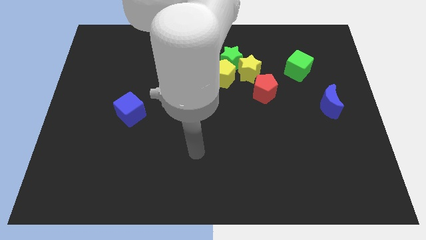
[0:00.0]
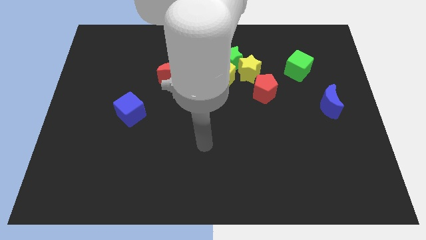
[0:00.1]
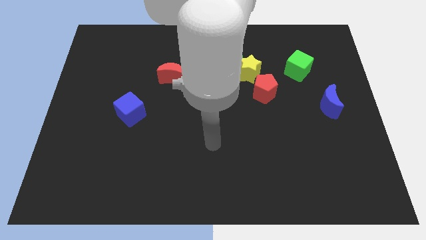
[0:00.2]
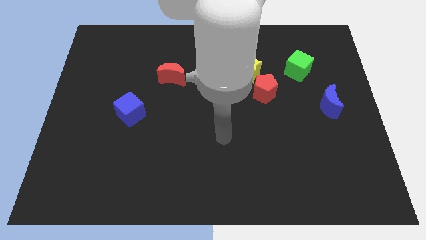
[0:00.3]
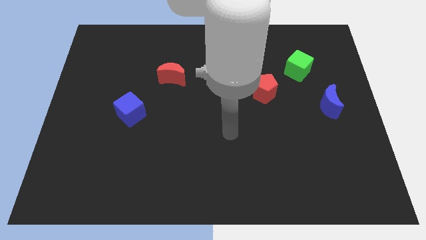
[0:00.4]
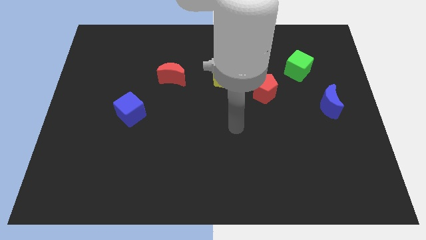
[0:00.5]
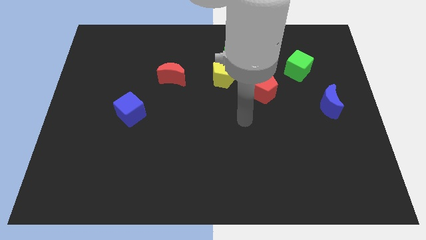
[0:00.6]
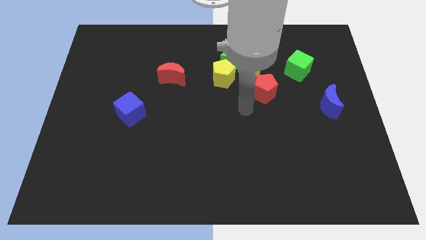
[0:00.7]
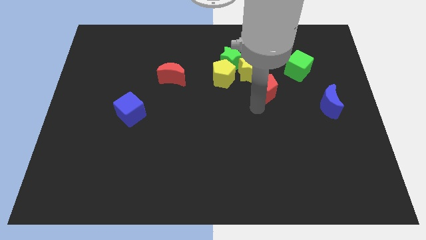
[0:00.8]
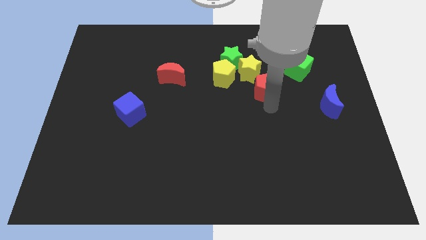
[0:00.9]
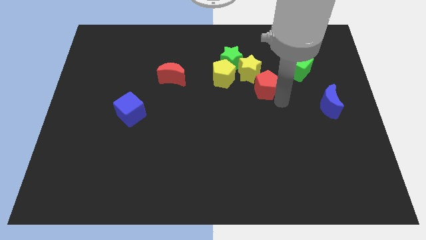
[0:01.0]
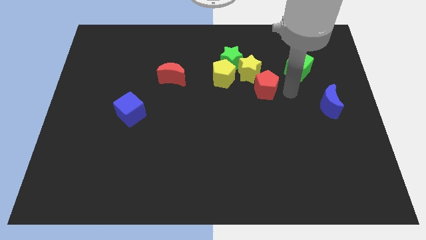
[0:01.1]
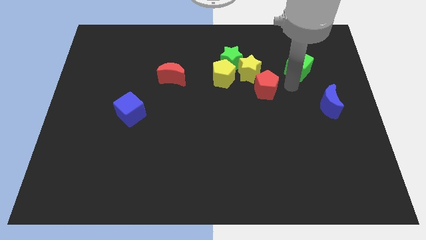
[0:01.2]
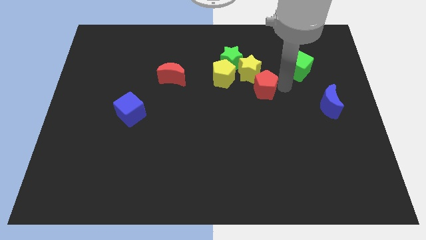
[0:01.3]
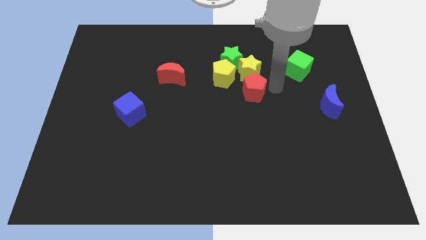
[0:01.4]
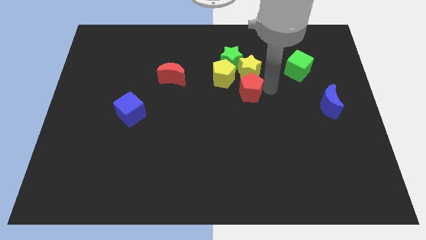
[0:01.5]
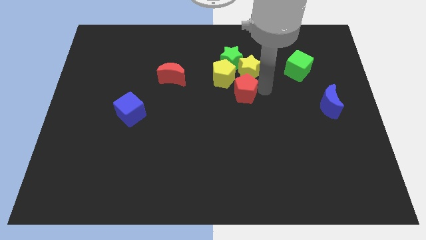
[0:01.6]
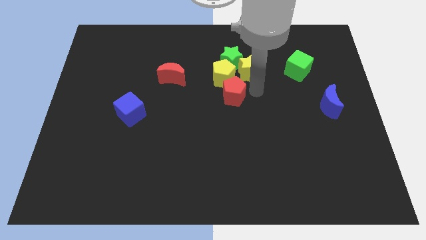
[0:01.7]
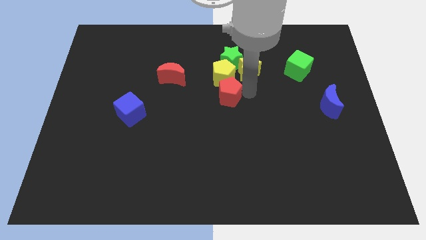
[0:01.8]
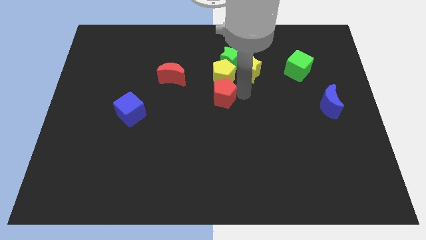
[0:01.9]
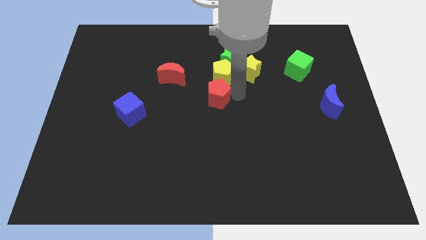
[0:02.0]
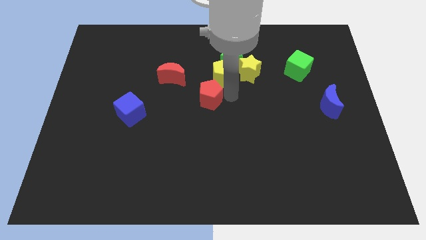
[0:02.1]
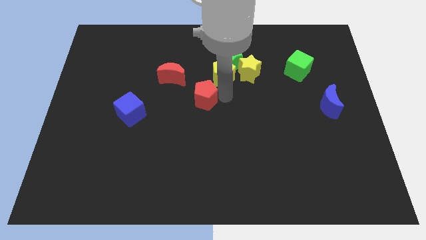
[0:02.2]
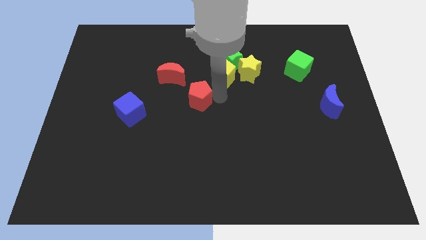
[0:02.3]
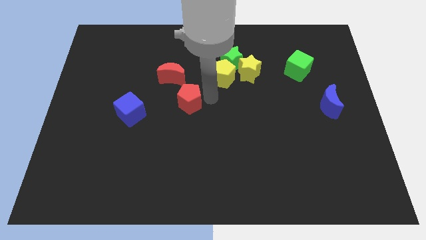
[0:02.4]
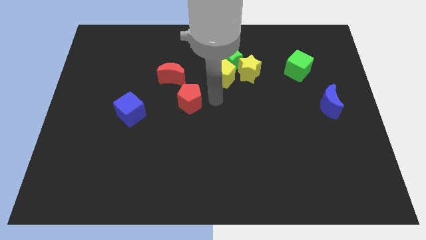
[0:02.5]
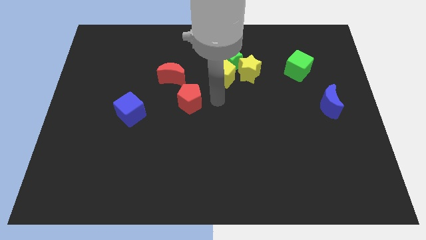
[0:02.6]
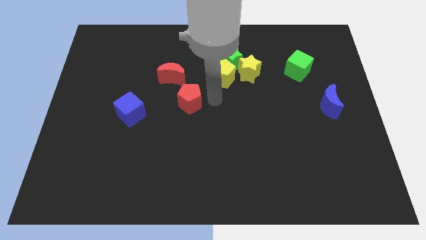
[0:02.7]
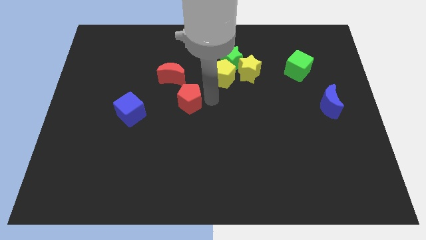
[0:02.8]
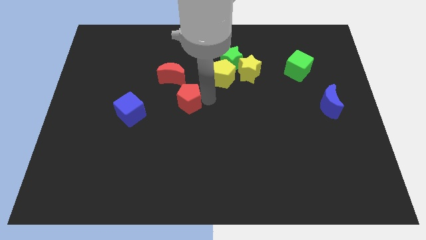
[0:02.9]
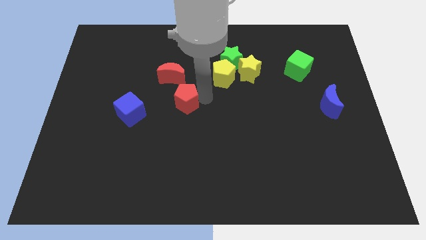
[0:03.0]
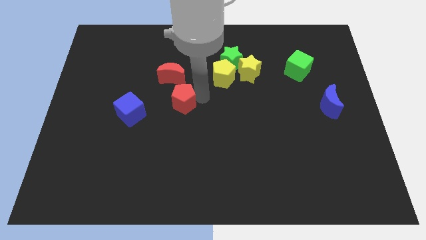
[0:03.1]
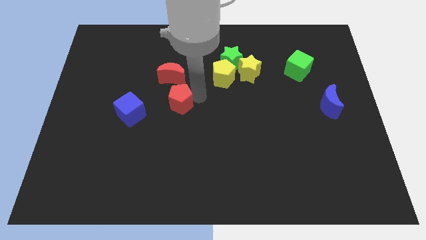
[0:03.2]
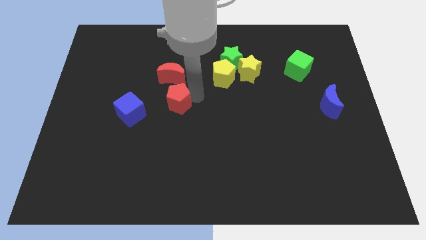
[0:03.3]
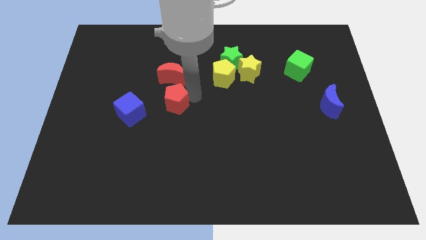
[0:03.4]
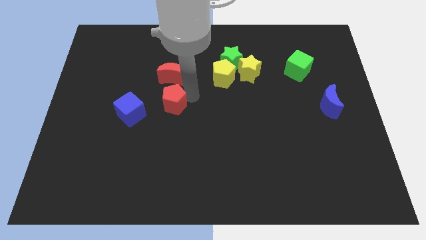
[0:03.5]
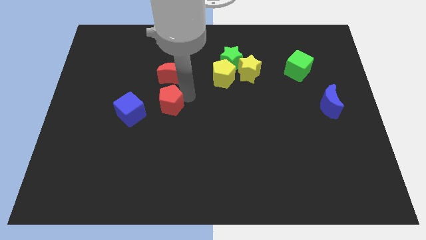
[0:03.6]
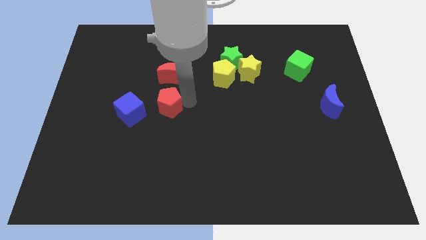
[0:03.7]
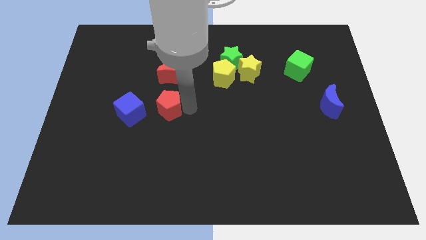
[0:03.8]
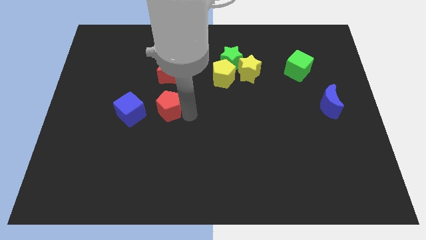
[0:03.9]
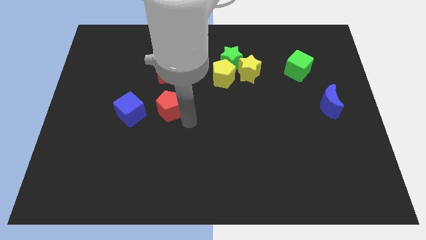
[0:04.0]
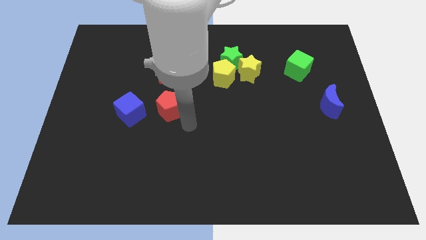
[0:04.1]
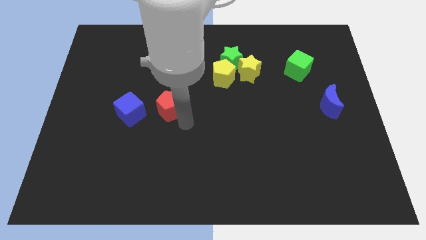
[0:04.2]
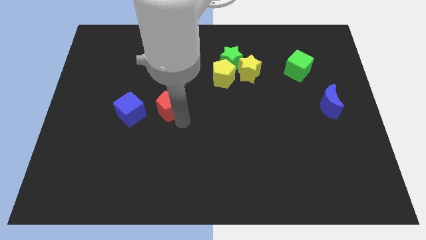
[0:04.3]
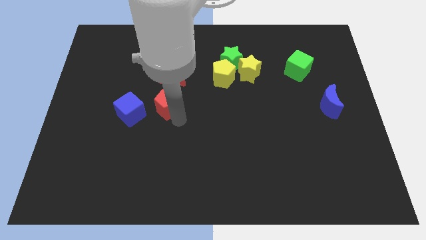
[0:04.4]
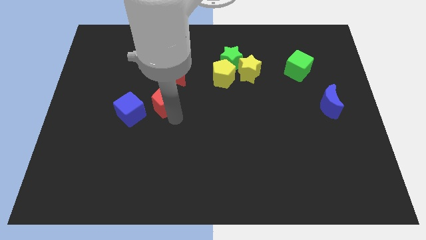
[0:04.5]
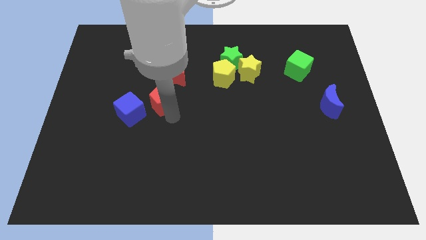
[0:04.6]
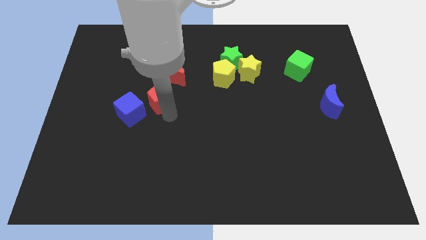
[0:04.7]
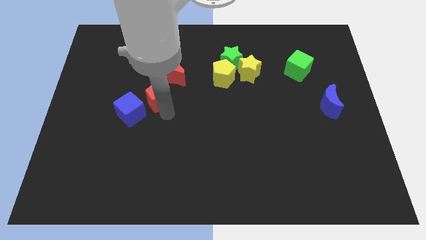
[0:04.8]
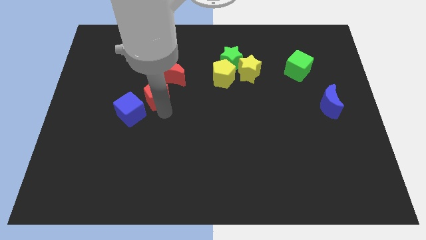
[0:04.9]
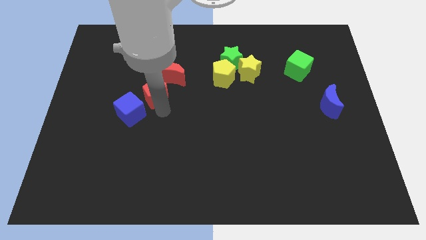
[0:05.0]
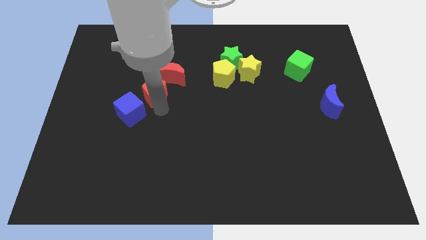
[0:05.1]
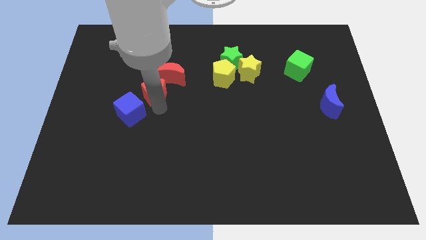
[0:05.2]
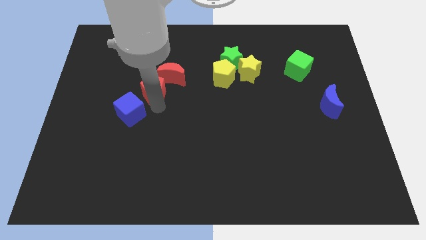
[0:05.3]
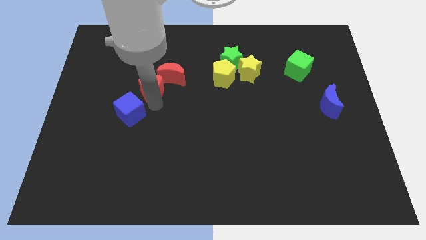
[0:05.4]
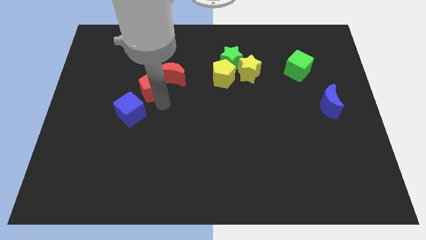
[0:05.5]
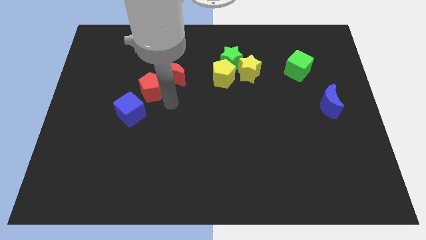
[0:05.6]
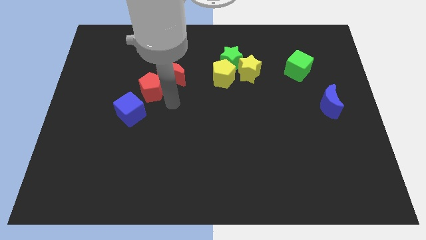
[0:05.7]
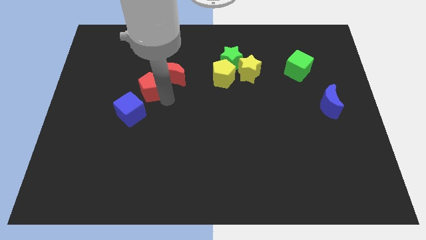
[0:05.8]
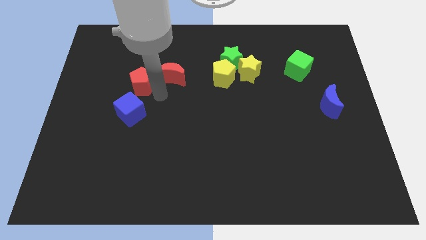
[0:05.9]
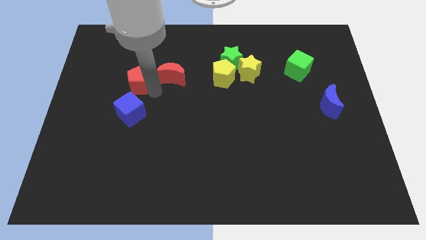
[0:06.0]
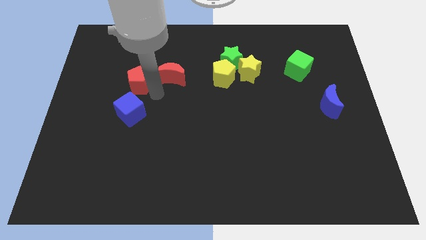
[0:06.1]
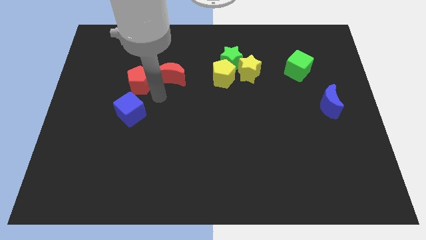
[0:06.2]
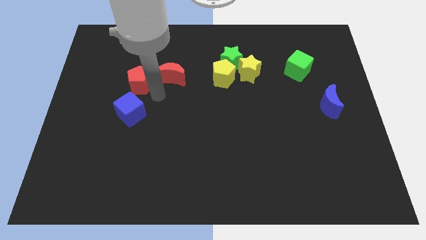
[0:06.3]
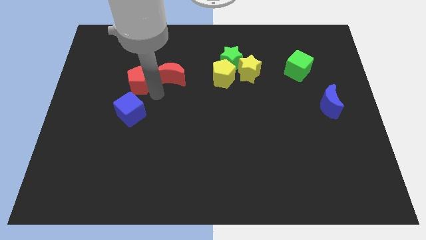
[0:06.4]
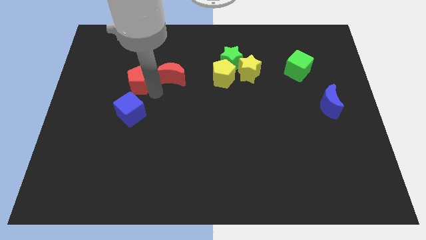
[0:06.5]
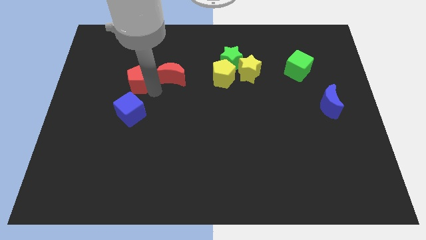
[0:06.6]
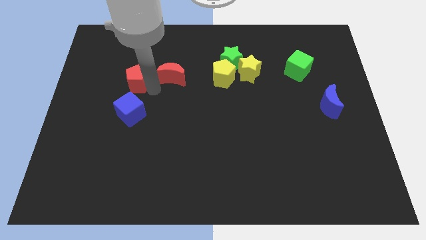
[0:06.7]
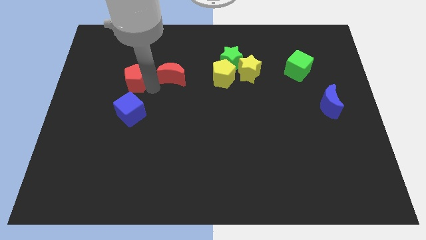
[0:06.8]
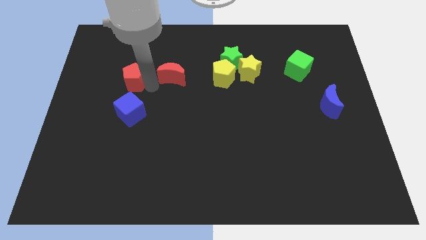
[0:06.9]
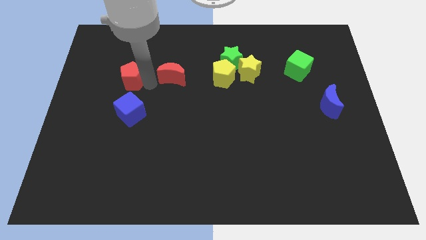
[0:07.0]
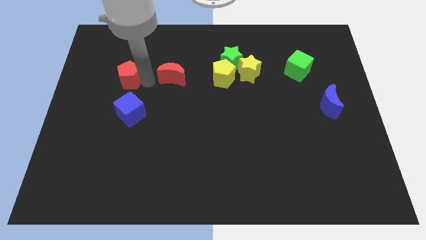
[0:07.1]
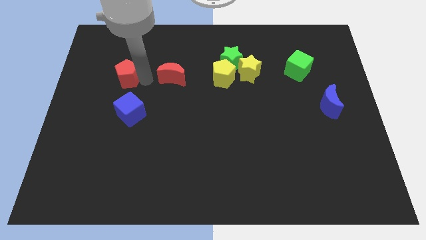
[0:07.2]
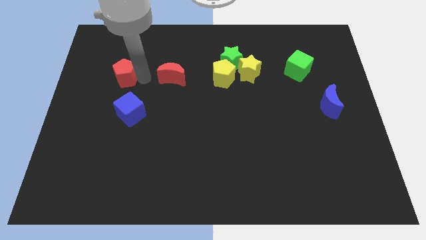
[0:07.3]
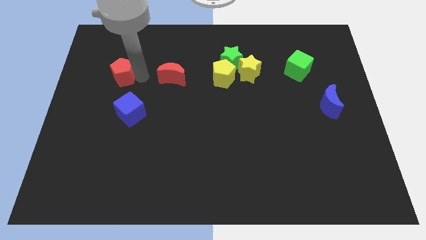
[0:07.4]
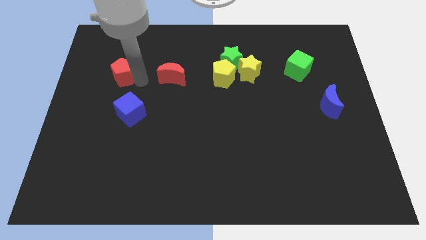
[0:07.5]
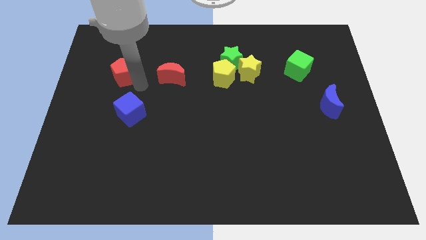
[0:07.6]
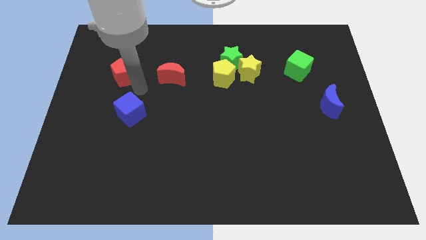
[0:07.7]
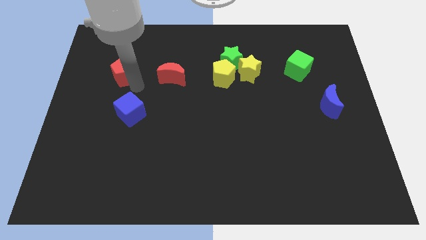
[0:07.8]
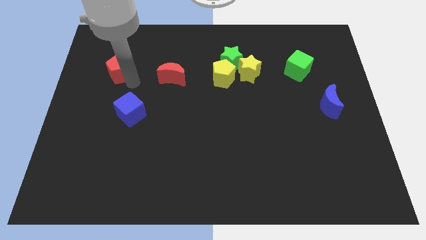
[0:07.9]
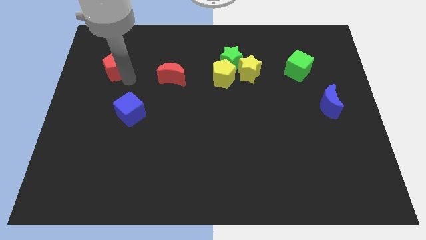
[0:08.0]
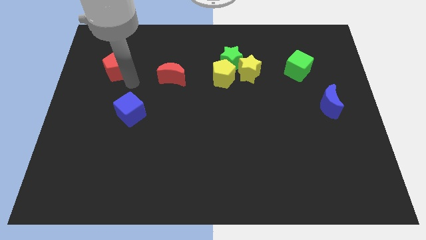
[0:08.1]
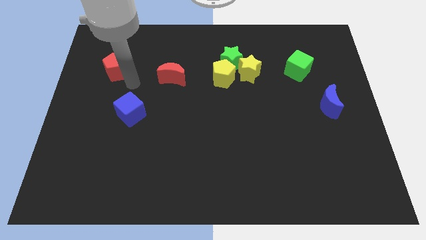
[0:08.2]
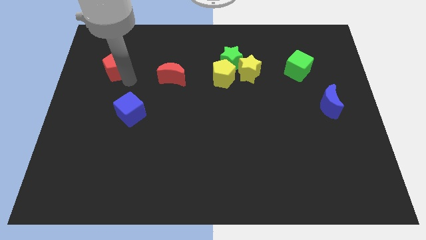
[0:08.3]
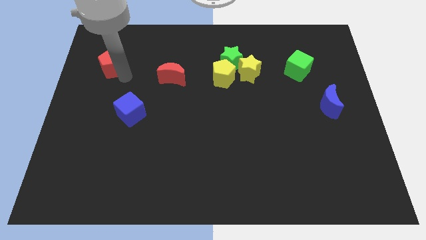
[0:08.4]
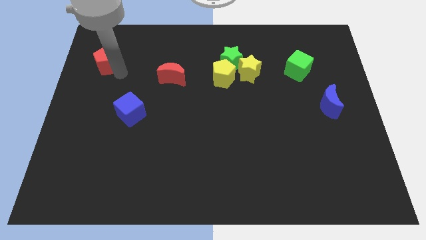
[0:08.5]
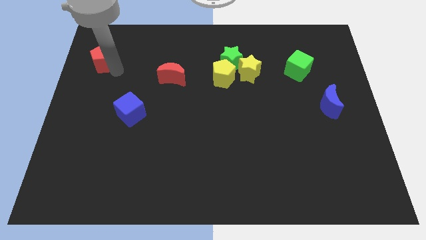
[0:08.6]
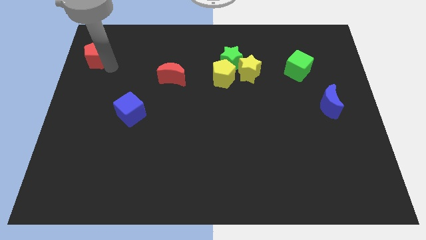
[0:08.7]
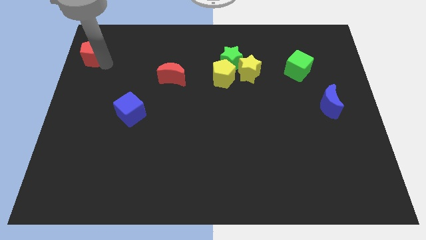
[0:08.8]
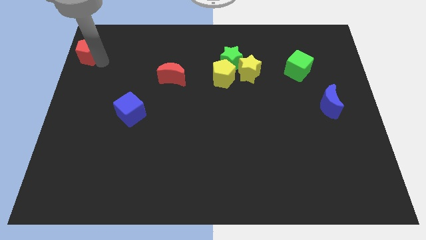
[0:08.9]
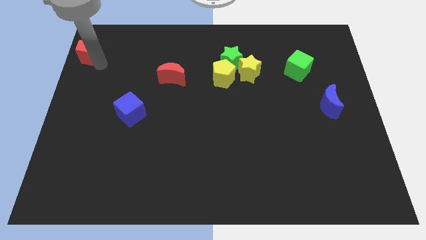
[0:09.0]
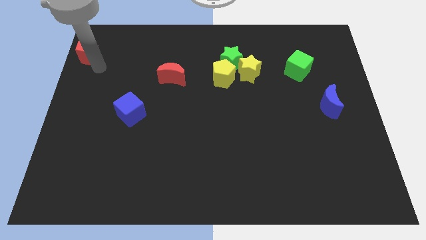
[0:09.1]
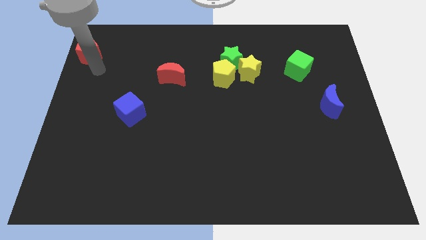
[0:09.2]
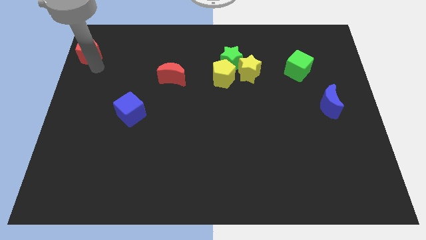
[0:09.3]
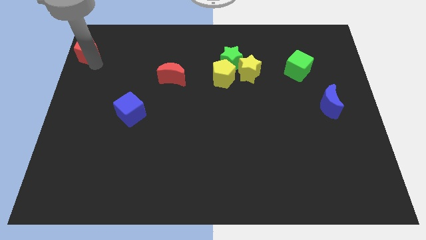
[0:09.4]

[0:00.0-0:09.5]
put the red pentagon to the top left
